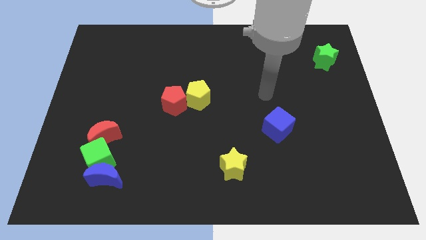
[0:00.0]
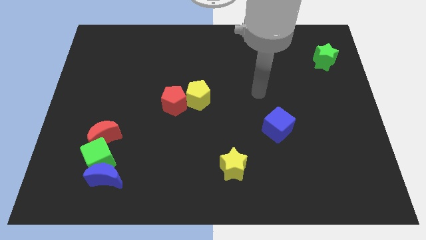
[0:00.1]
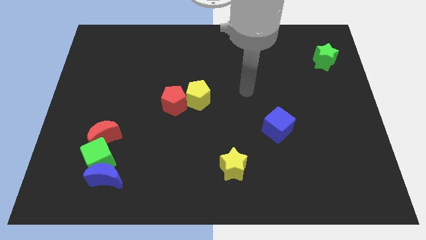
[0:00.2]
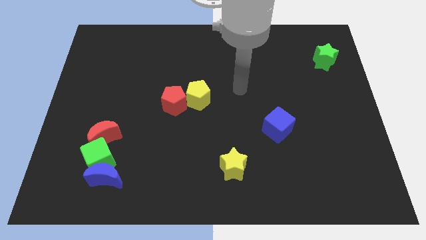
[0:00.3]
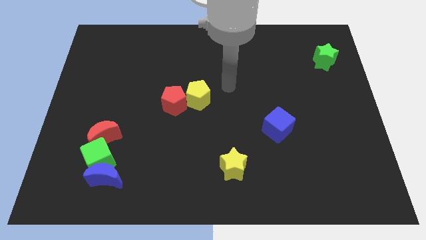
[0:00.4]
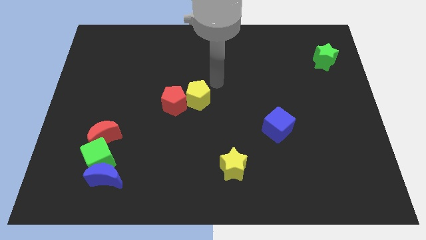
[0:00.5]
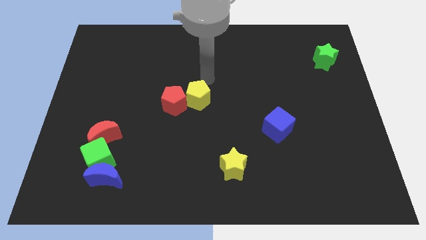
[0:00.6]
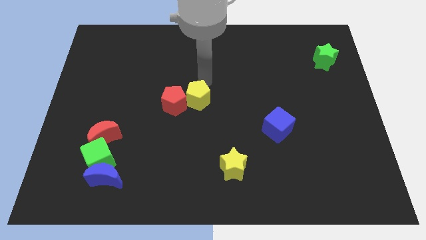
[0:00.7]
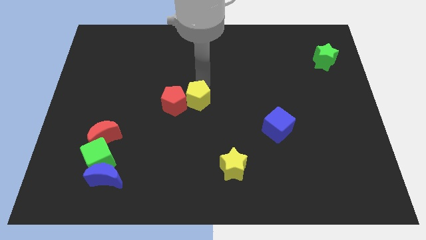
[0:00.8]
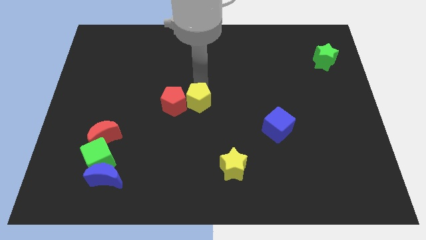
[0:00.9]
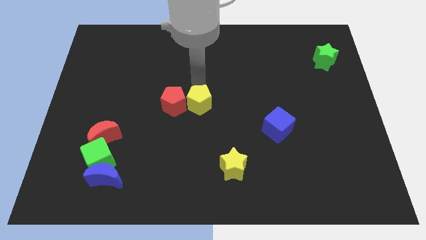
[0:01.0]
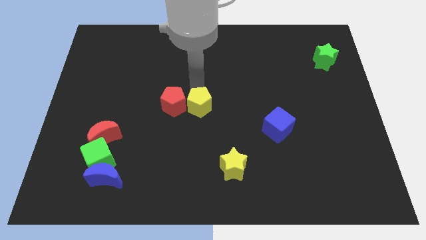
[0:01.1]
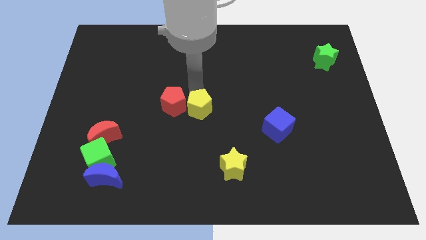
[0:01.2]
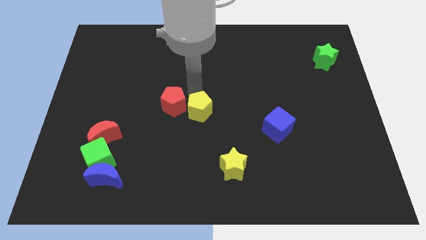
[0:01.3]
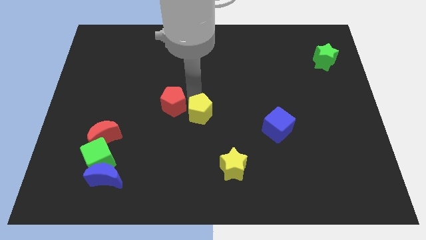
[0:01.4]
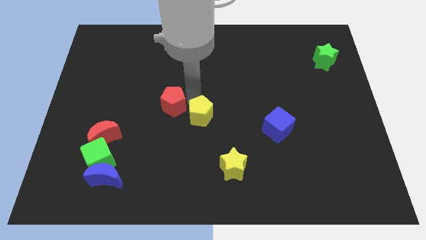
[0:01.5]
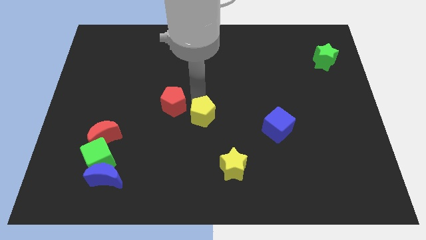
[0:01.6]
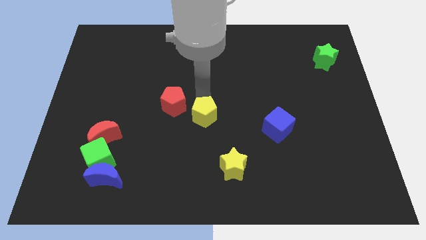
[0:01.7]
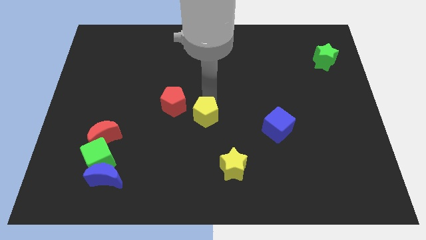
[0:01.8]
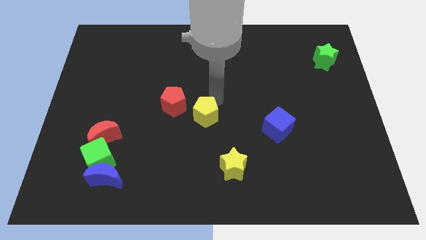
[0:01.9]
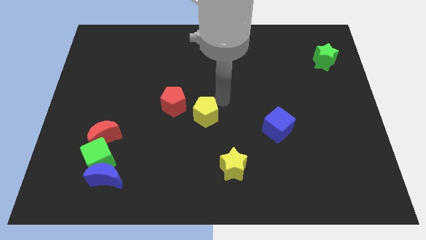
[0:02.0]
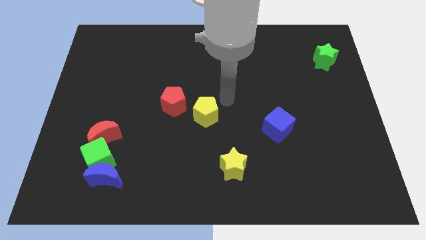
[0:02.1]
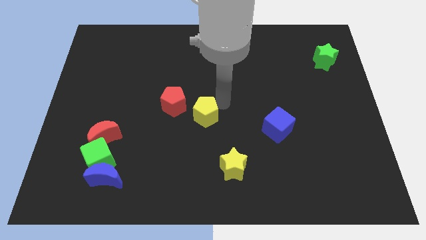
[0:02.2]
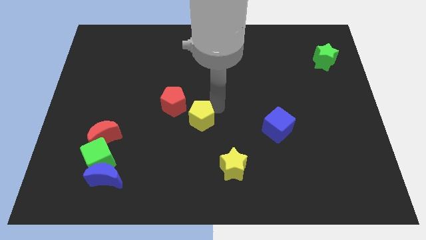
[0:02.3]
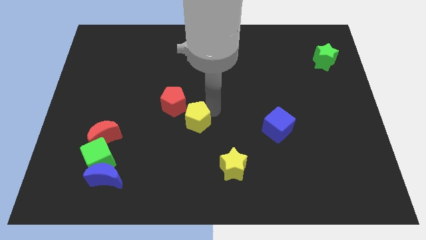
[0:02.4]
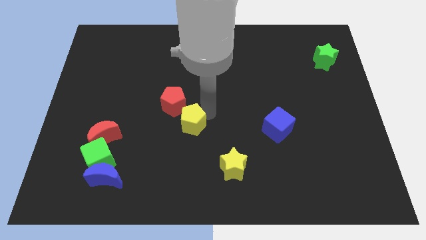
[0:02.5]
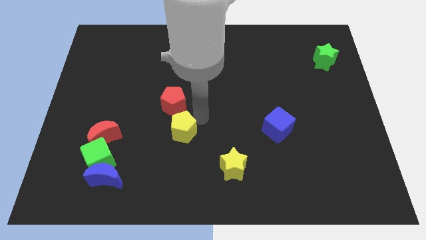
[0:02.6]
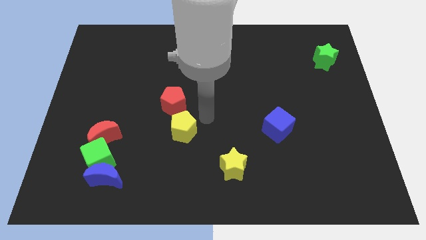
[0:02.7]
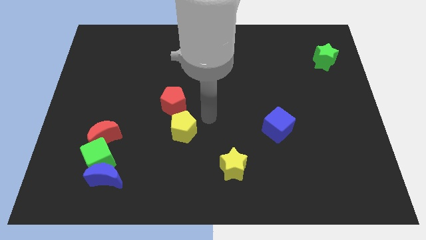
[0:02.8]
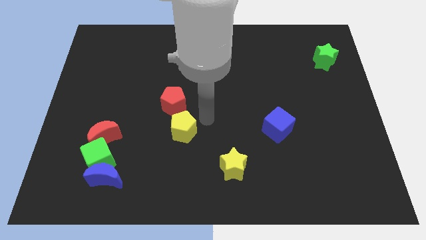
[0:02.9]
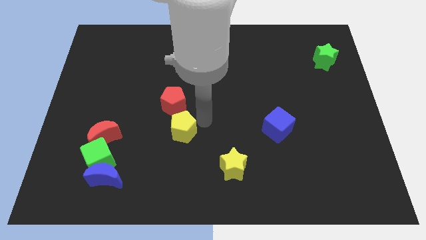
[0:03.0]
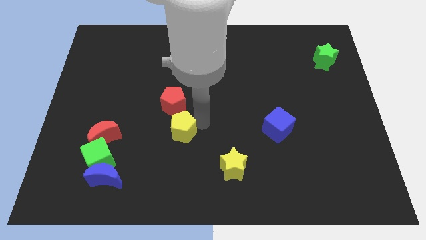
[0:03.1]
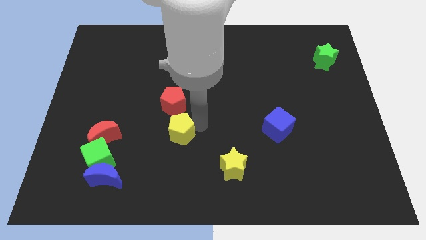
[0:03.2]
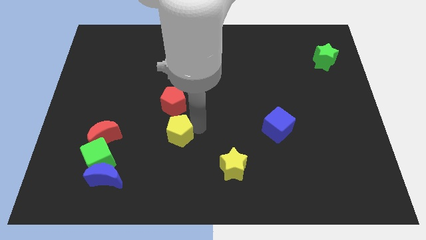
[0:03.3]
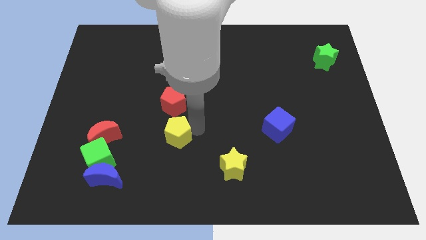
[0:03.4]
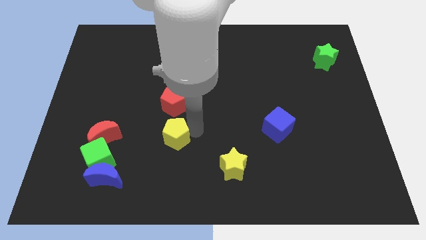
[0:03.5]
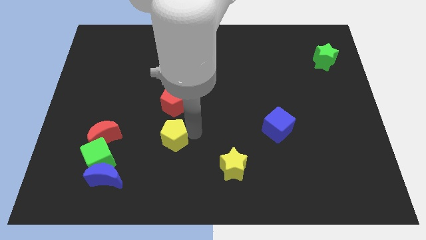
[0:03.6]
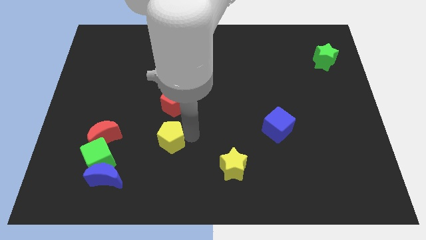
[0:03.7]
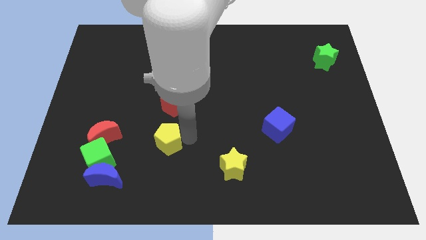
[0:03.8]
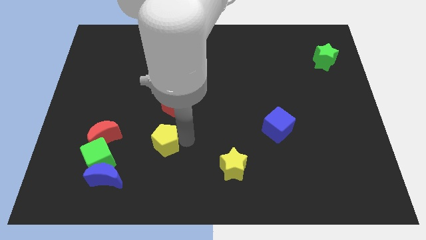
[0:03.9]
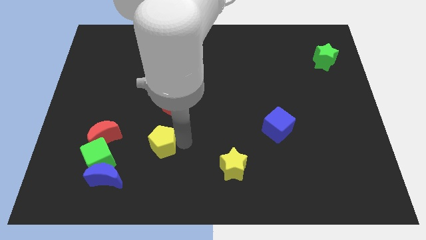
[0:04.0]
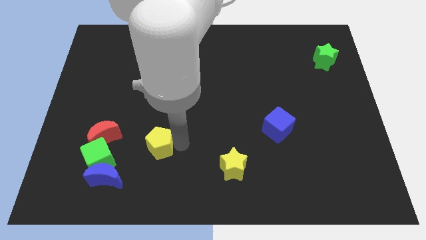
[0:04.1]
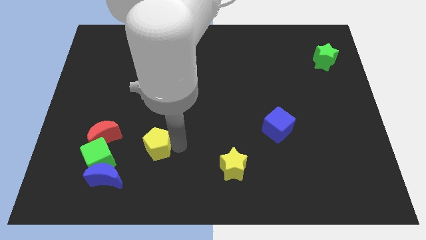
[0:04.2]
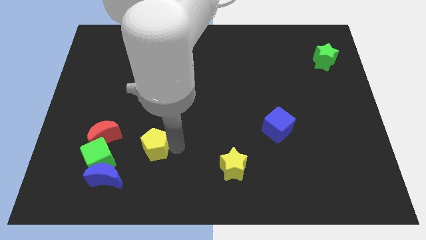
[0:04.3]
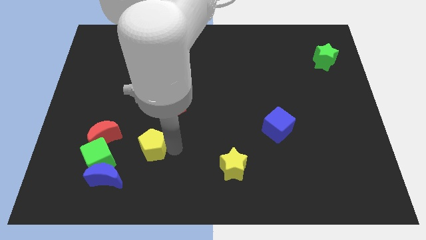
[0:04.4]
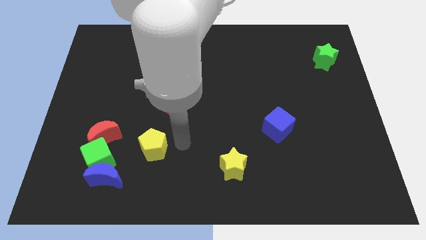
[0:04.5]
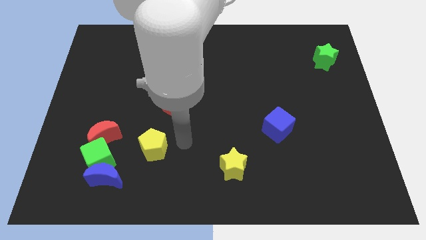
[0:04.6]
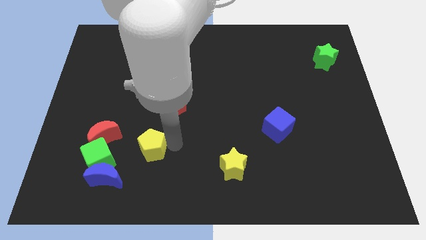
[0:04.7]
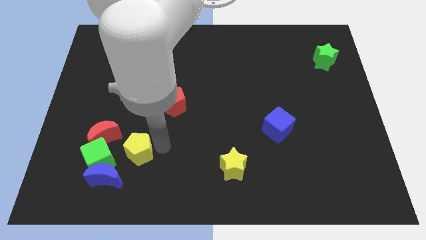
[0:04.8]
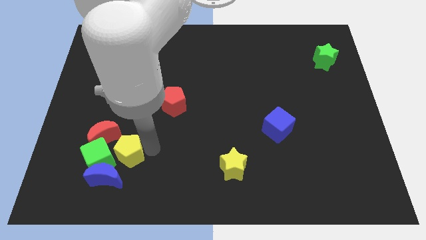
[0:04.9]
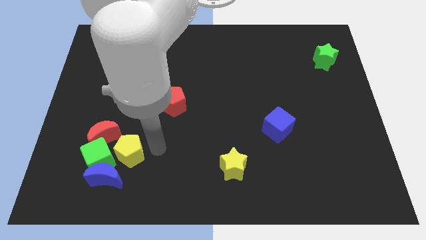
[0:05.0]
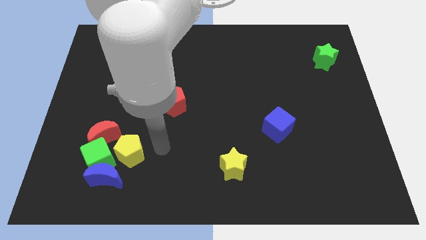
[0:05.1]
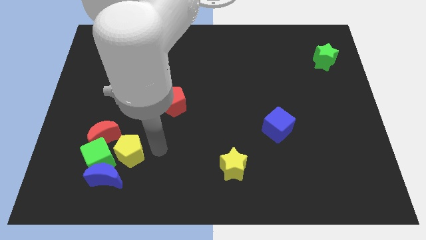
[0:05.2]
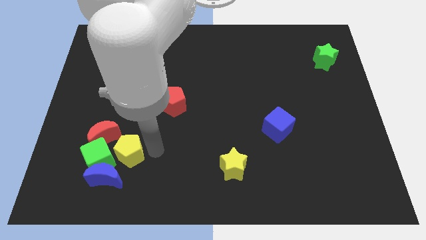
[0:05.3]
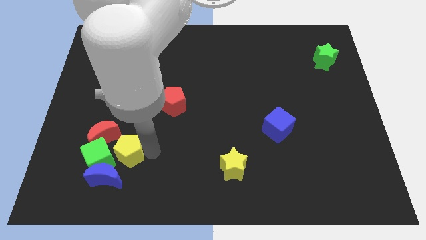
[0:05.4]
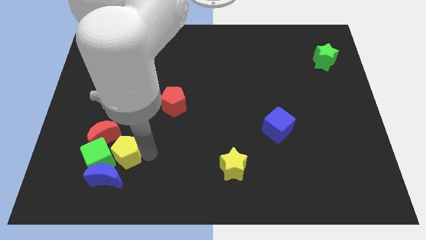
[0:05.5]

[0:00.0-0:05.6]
move the yellow pentagon to the green cube

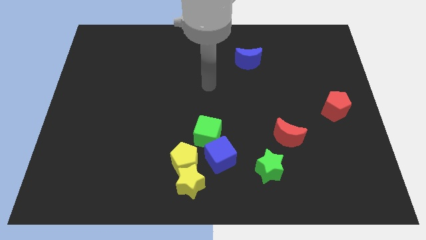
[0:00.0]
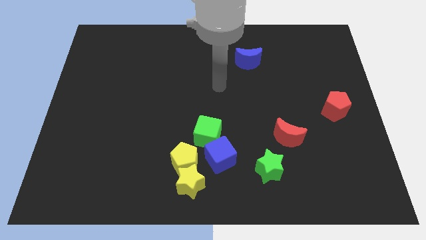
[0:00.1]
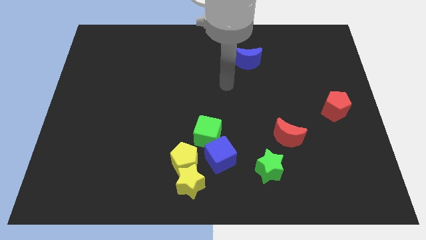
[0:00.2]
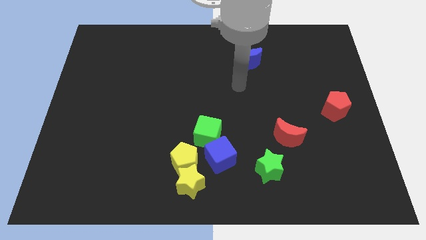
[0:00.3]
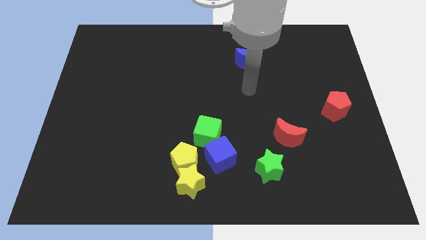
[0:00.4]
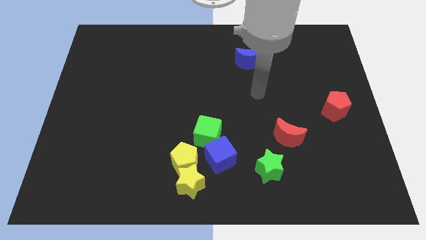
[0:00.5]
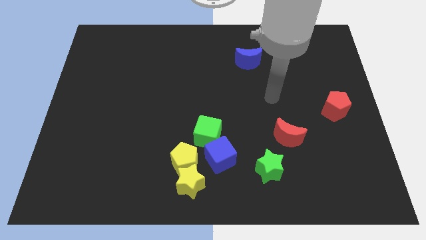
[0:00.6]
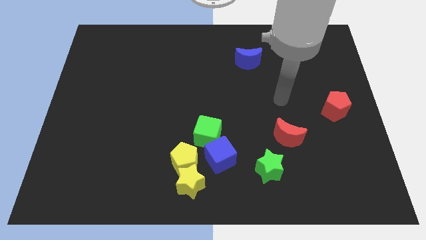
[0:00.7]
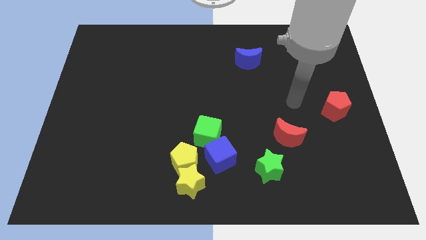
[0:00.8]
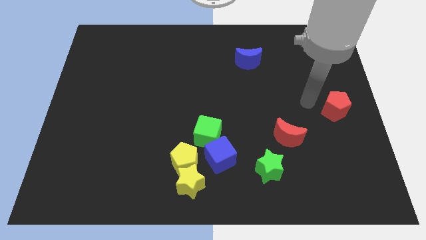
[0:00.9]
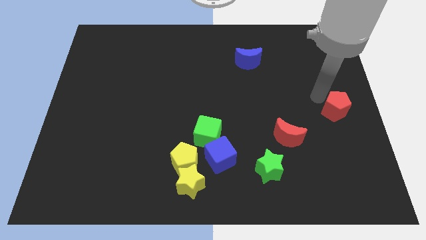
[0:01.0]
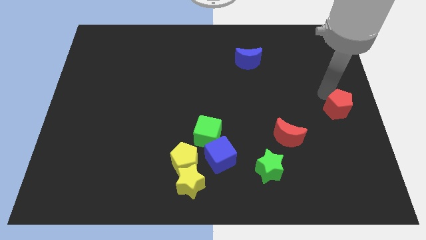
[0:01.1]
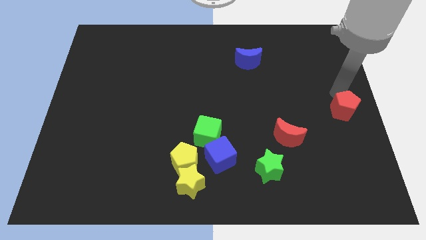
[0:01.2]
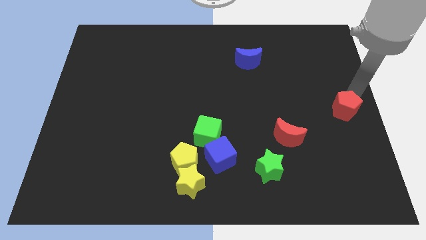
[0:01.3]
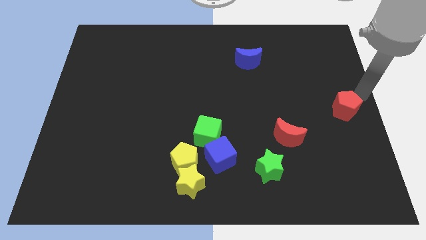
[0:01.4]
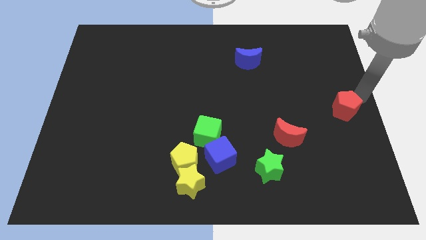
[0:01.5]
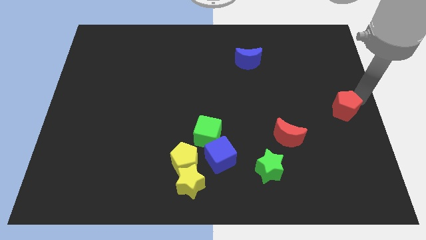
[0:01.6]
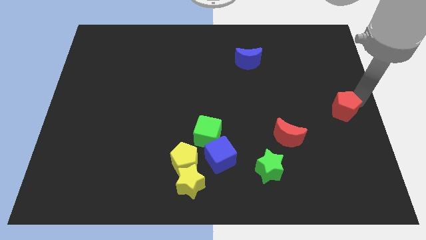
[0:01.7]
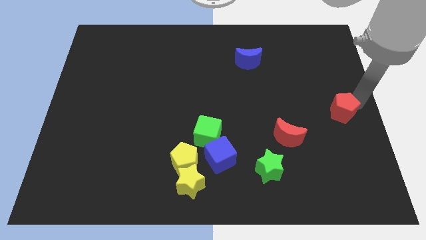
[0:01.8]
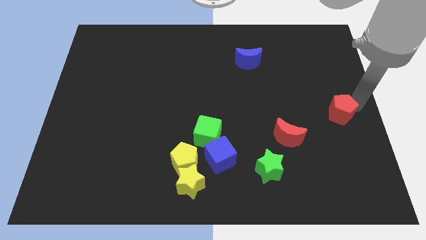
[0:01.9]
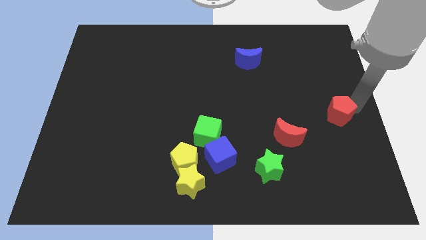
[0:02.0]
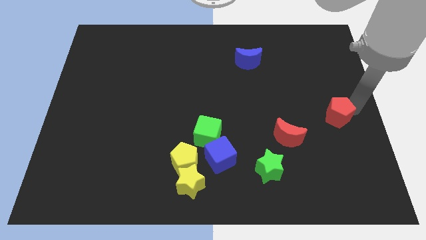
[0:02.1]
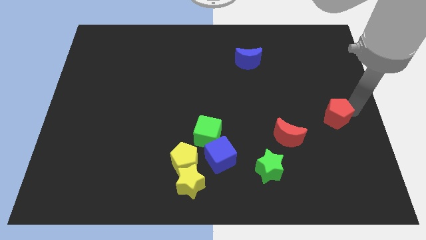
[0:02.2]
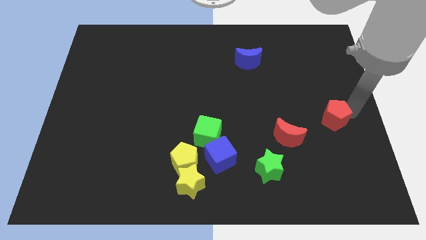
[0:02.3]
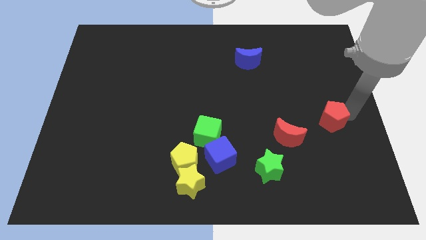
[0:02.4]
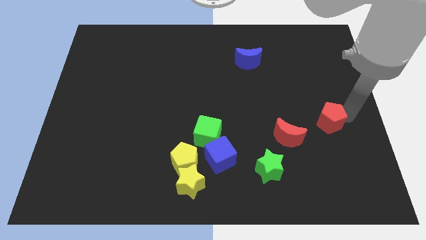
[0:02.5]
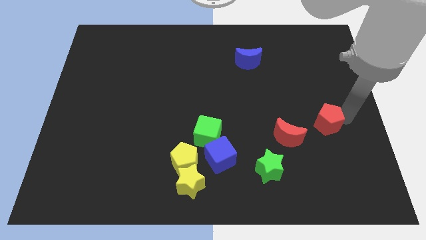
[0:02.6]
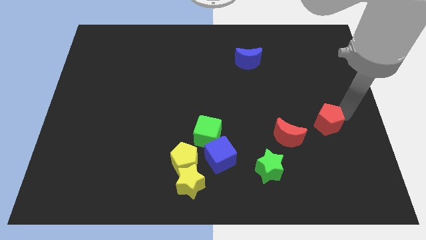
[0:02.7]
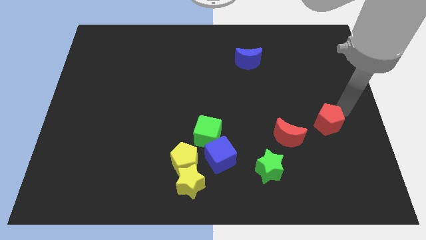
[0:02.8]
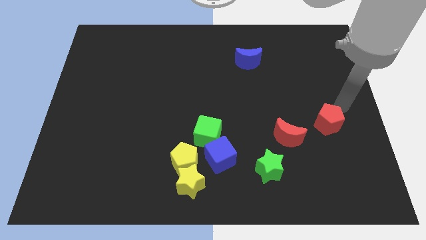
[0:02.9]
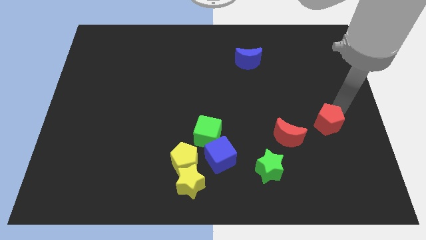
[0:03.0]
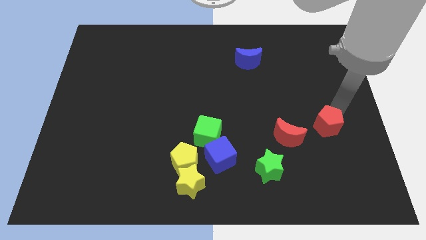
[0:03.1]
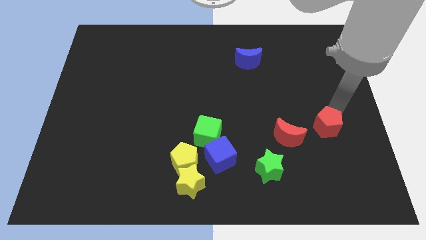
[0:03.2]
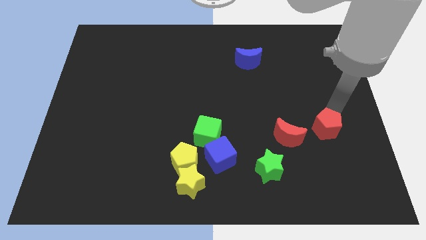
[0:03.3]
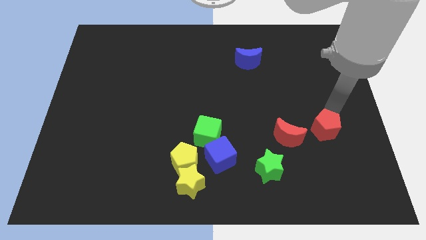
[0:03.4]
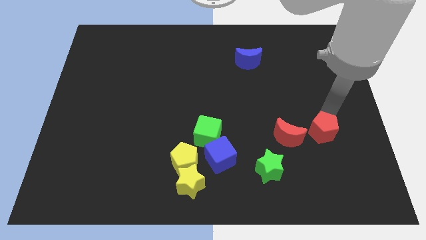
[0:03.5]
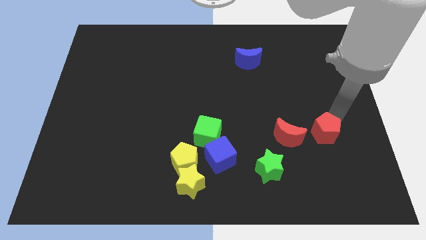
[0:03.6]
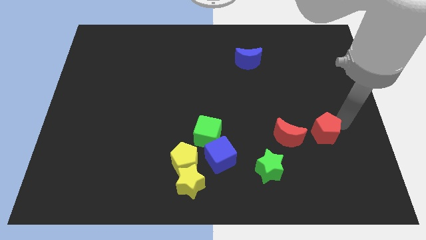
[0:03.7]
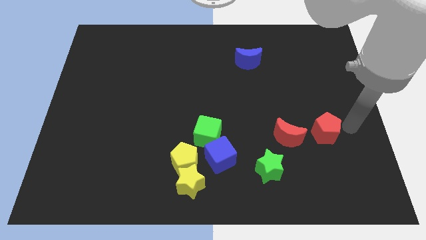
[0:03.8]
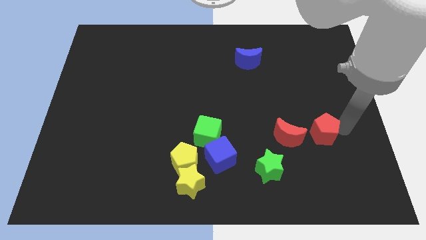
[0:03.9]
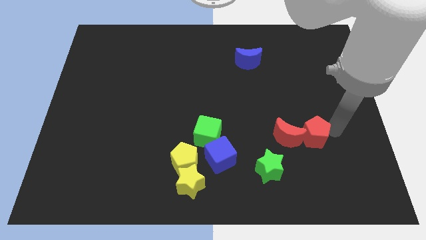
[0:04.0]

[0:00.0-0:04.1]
push the red pentagon next to the red moon
